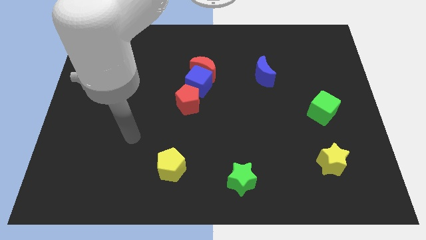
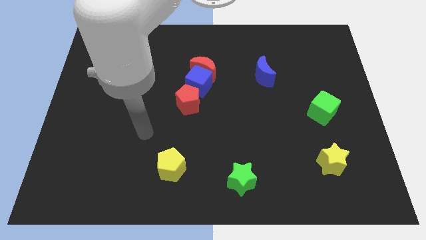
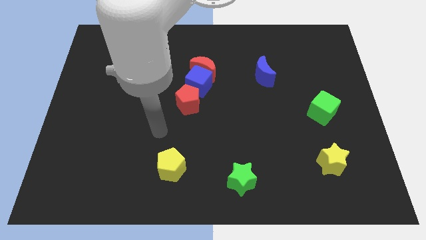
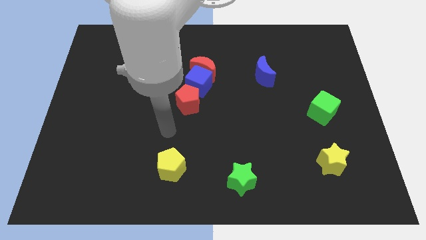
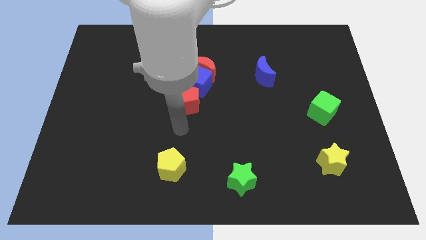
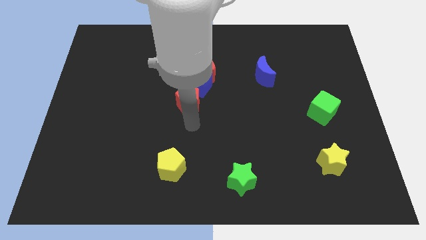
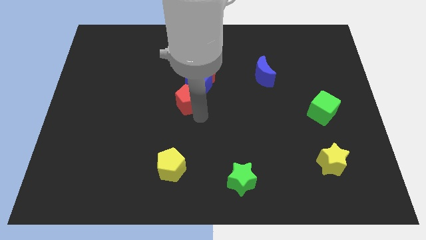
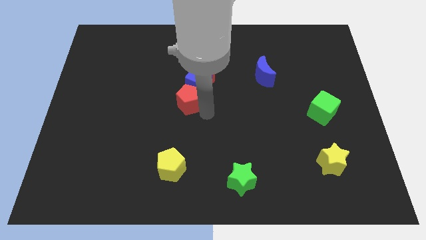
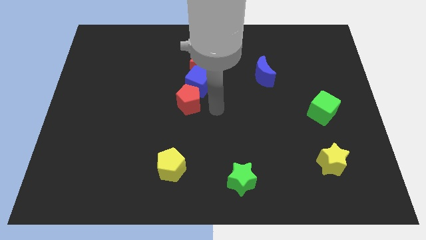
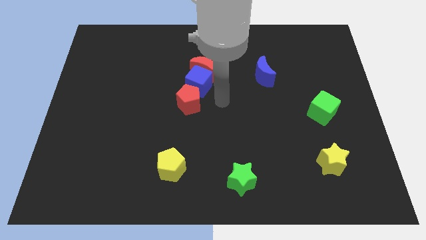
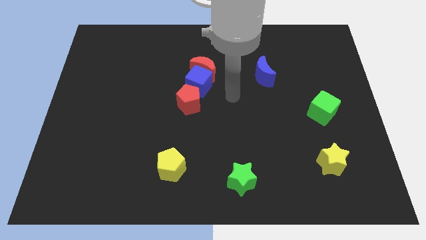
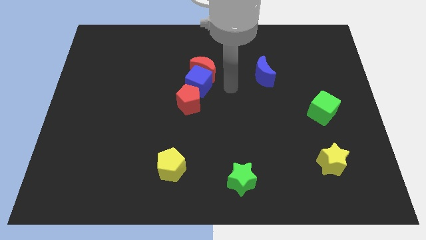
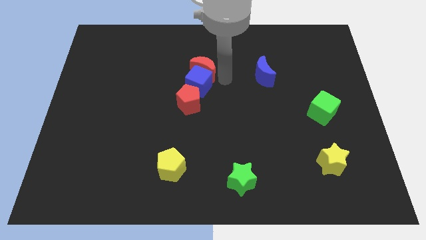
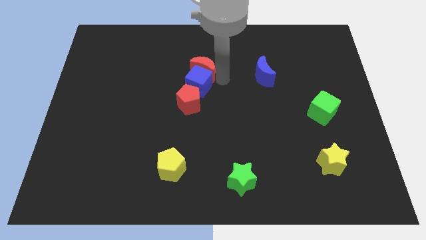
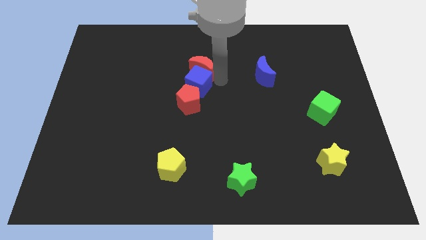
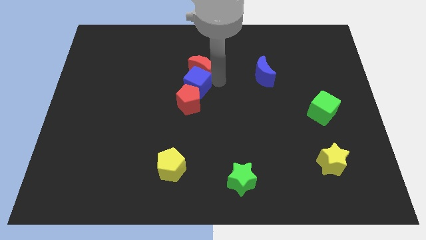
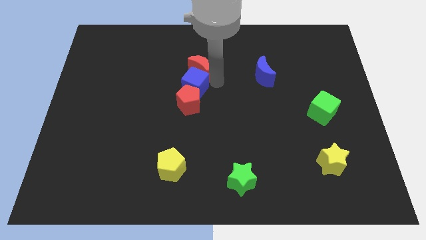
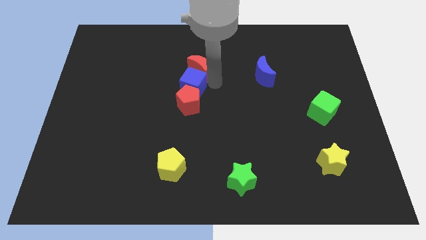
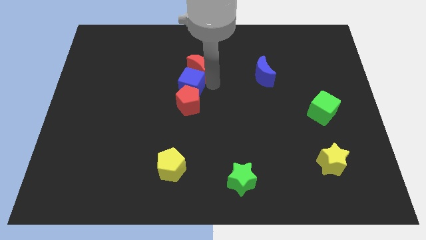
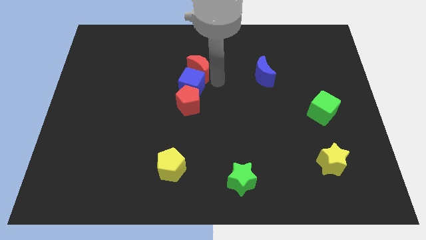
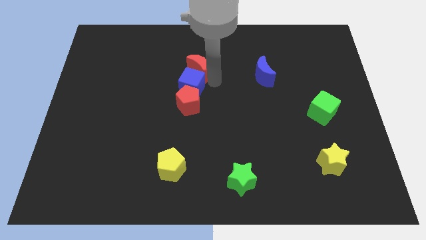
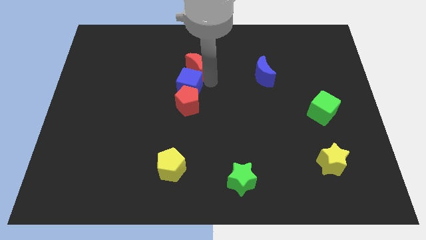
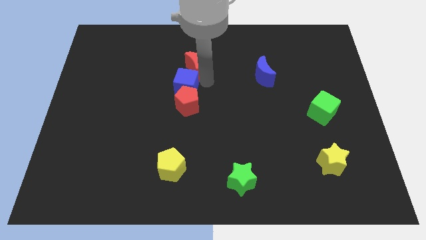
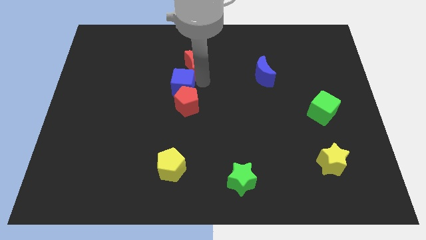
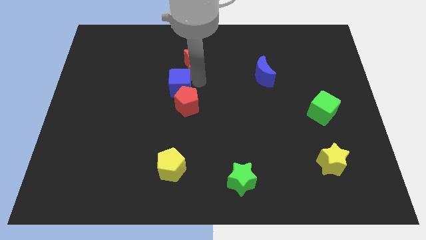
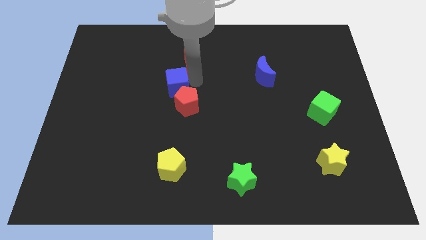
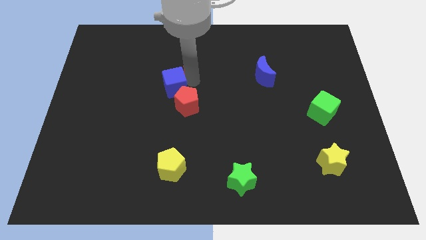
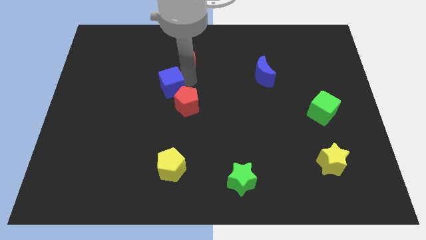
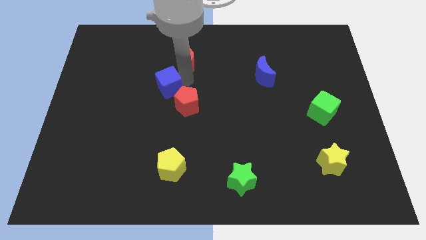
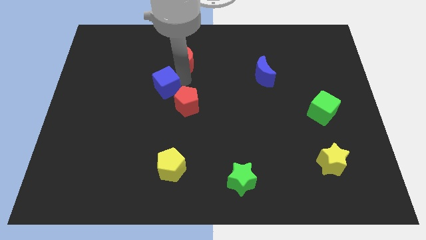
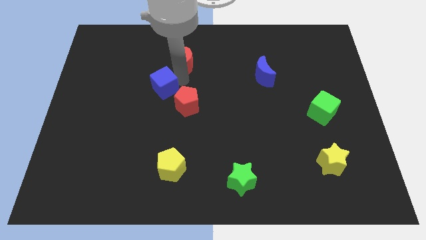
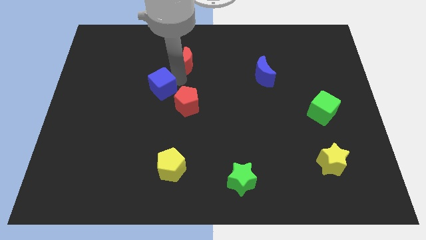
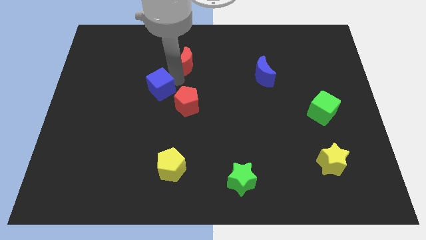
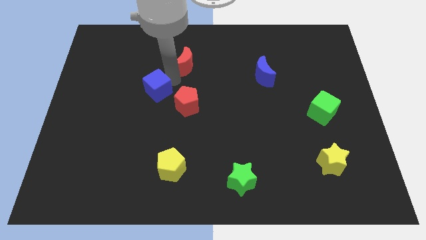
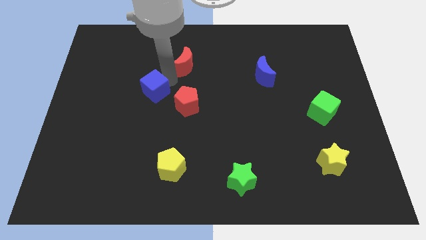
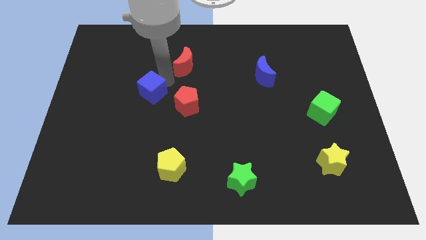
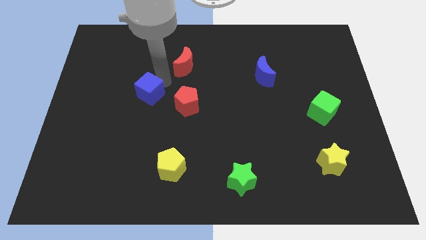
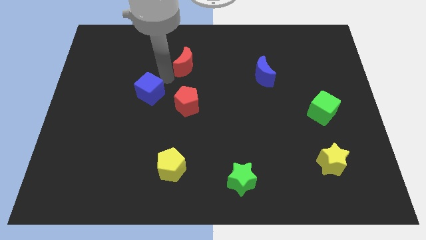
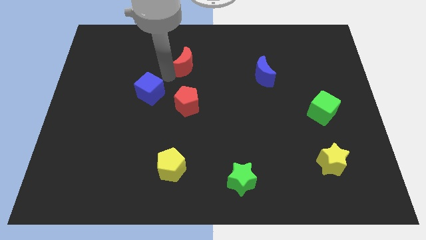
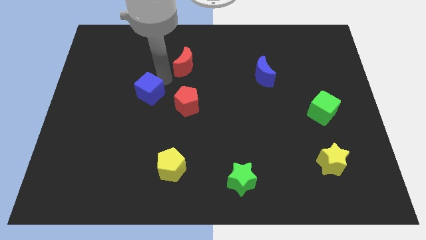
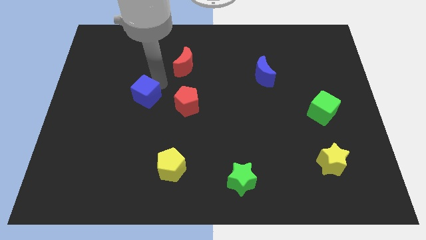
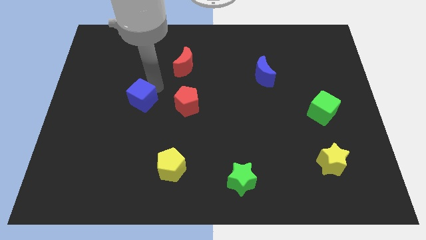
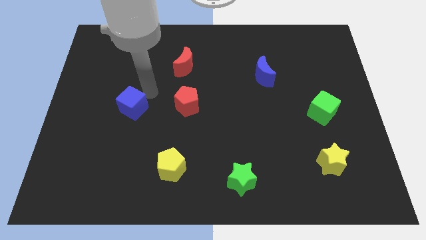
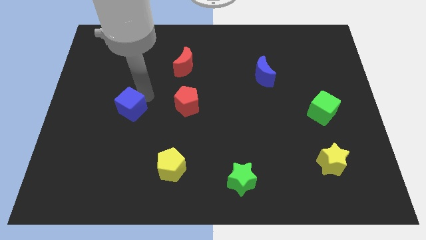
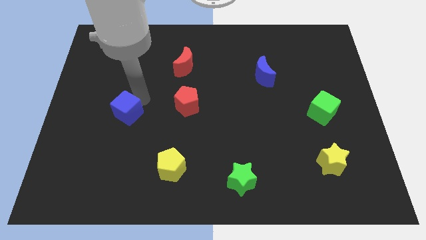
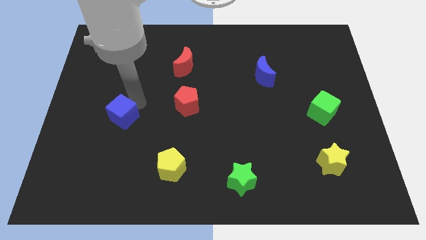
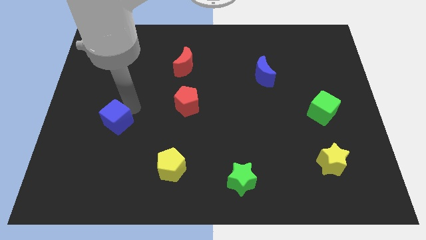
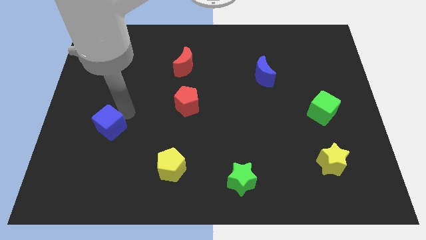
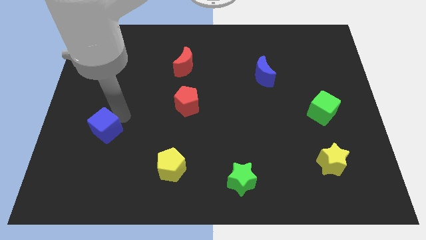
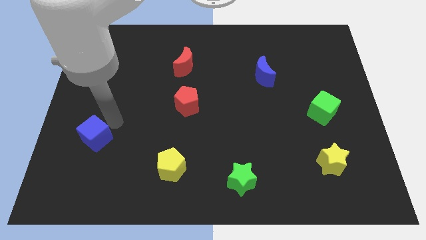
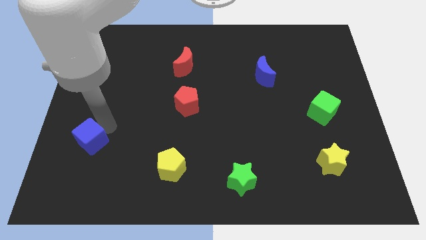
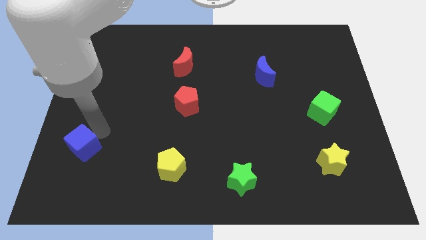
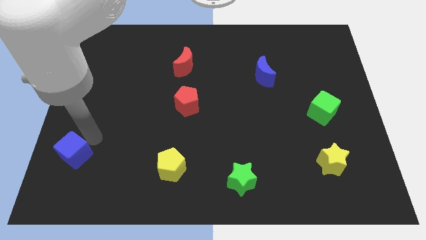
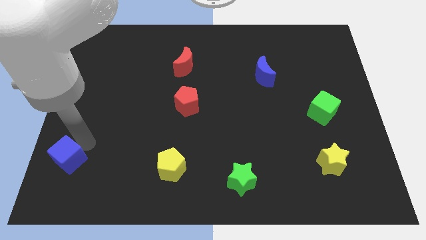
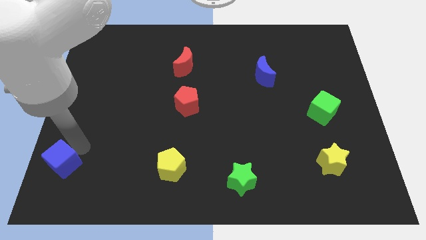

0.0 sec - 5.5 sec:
push the blue cube to the bottom left corner

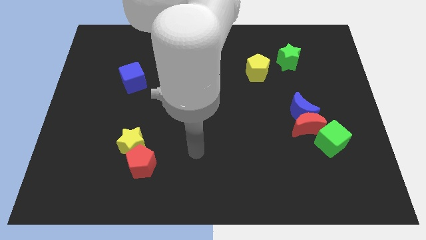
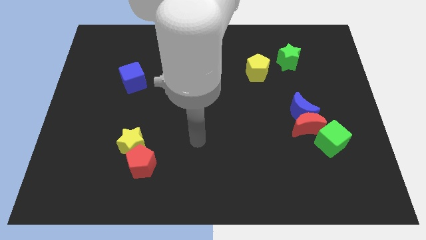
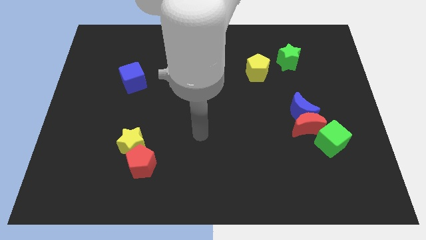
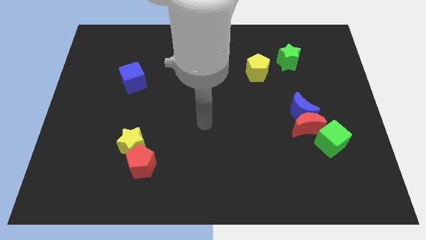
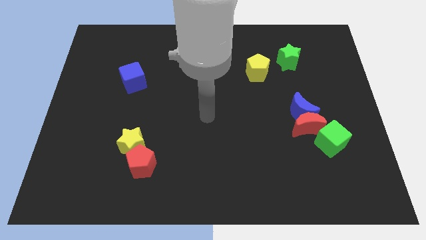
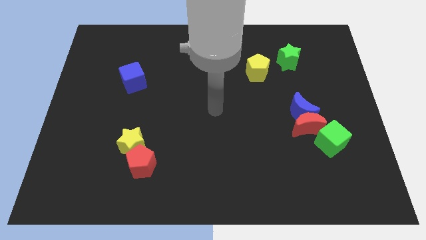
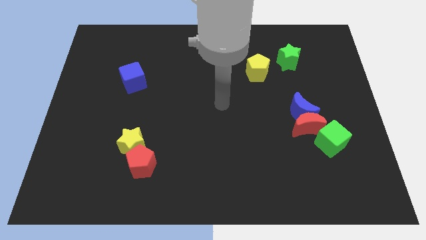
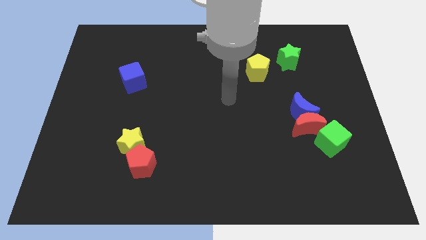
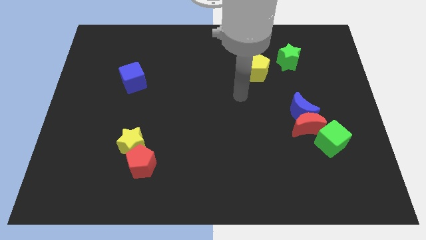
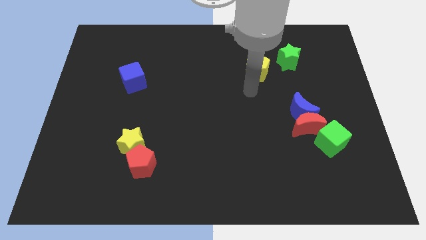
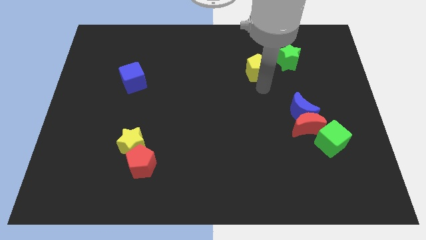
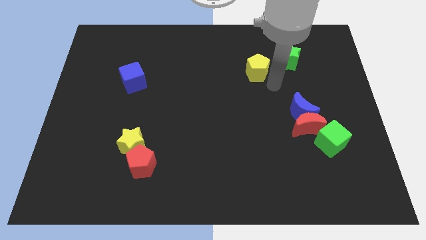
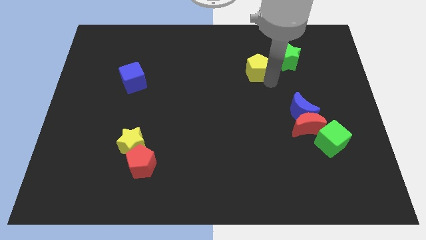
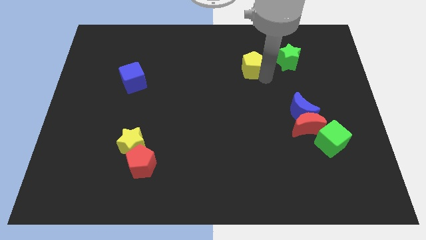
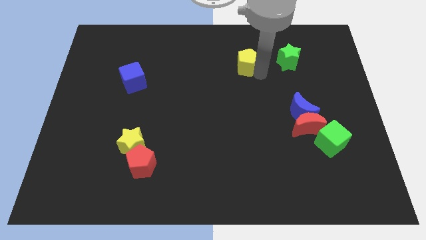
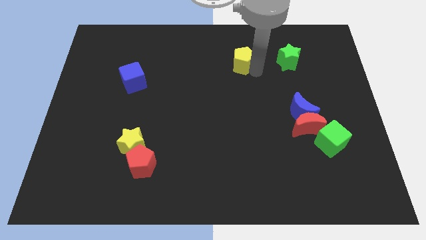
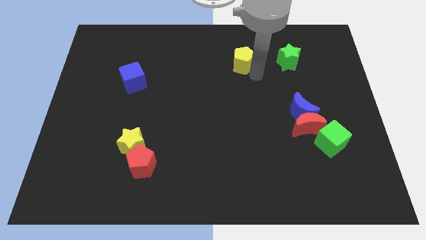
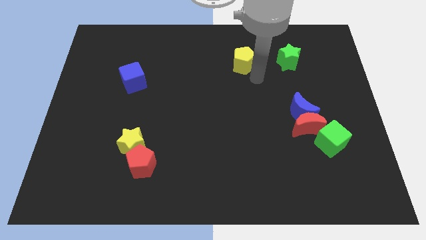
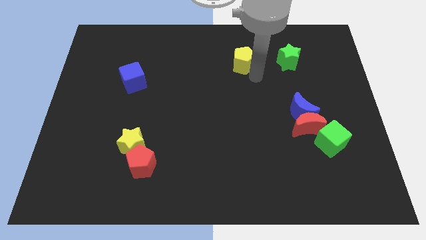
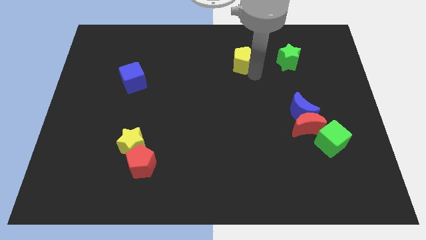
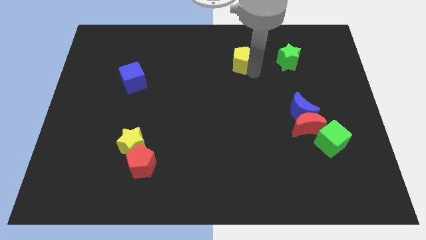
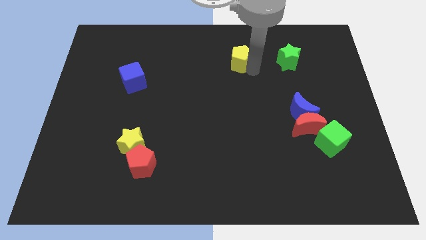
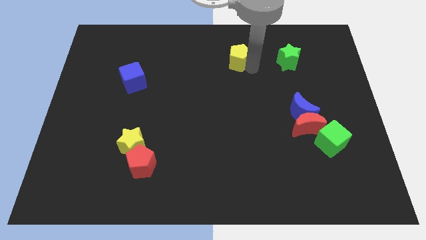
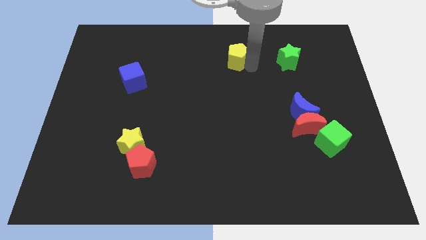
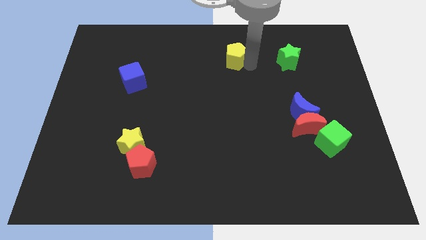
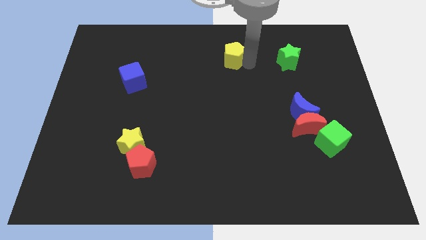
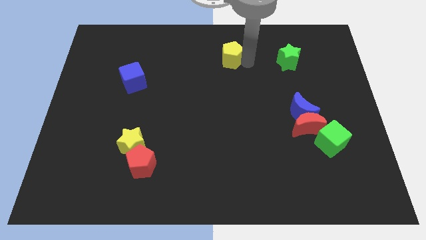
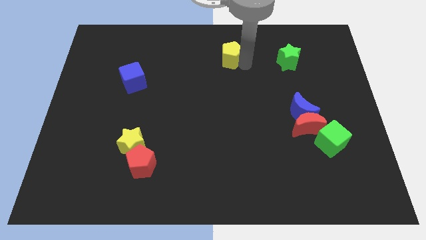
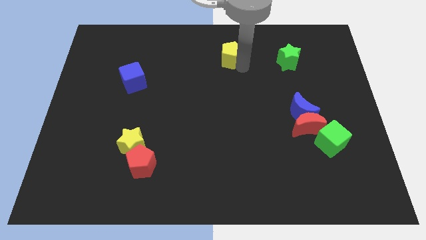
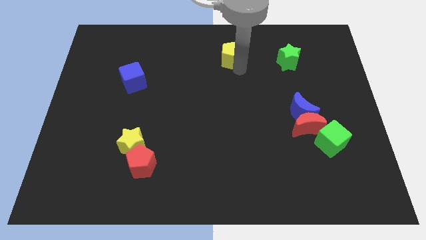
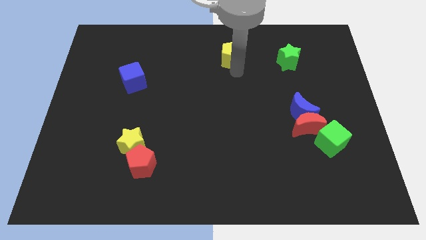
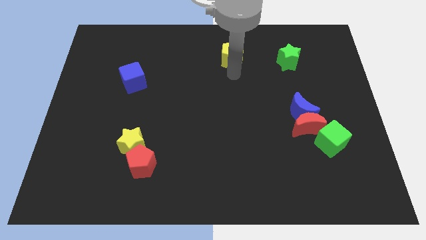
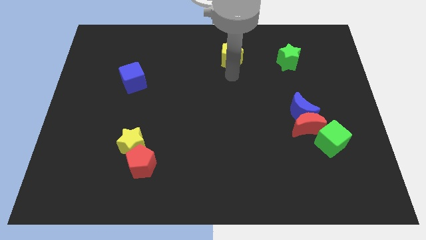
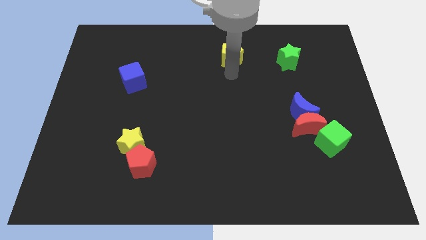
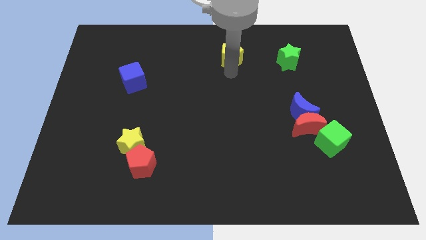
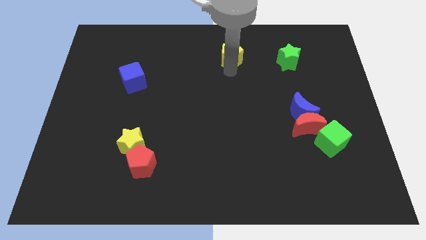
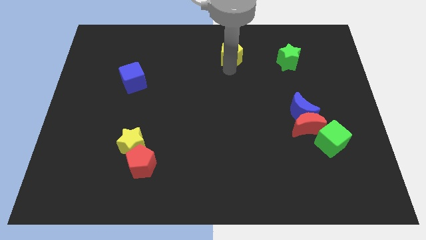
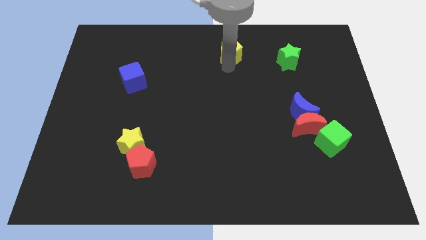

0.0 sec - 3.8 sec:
move the yellow pentagon to the top
